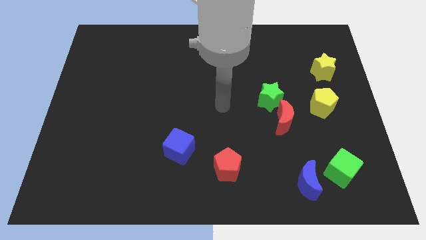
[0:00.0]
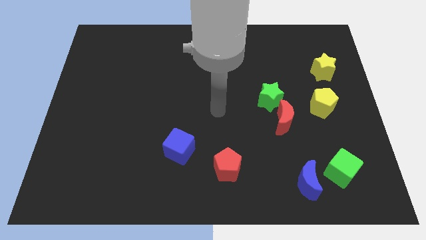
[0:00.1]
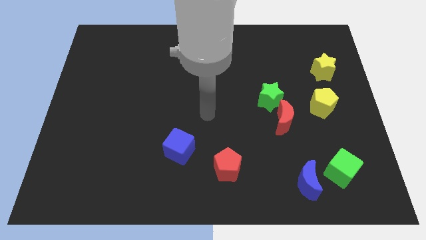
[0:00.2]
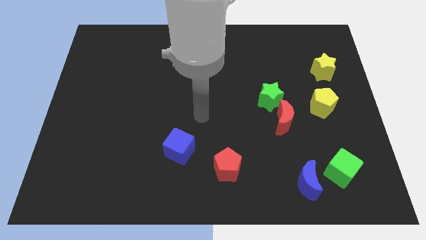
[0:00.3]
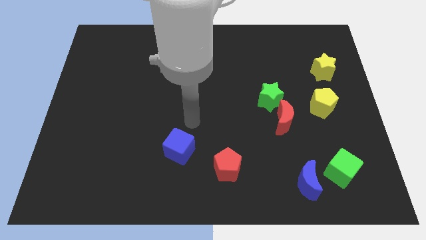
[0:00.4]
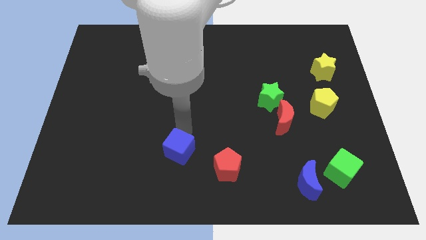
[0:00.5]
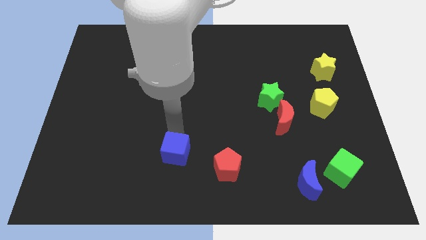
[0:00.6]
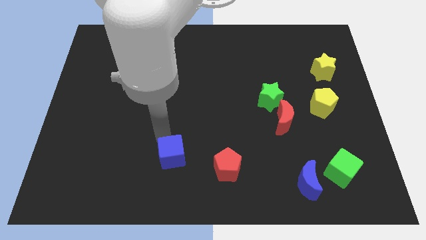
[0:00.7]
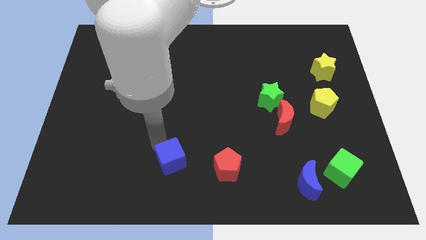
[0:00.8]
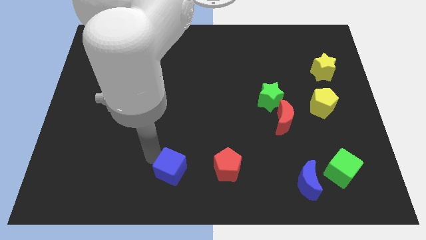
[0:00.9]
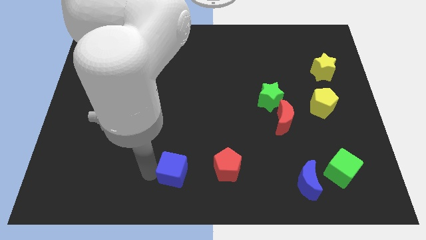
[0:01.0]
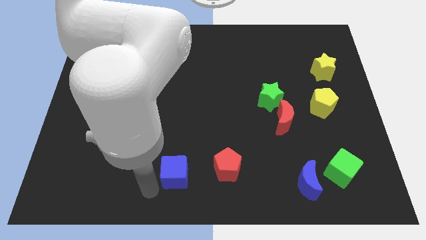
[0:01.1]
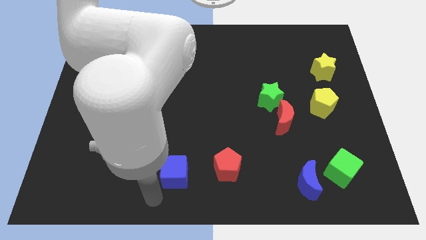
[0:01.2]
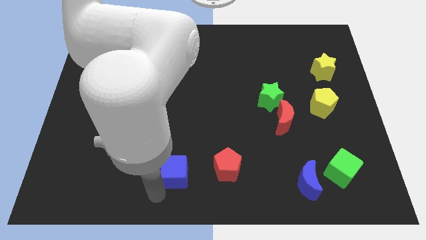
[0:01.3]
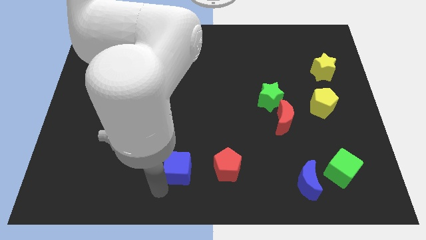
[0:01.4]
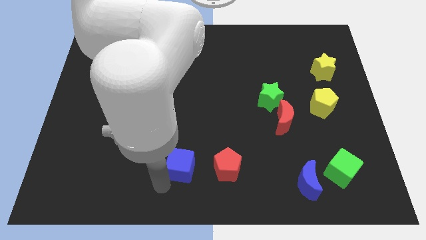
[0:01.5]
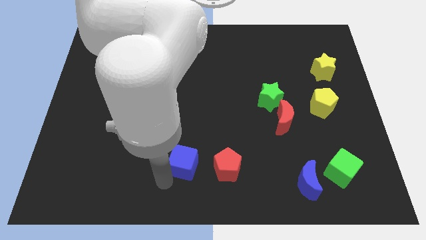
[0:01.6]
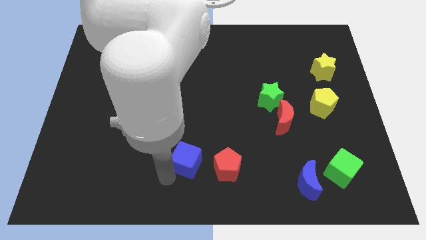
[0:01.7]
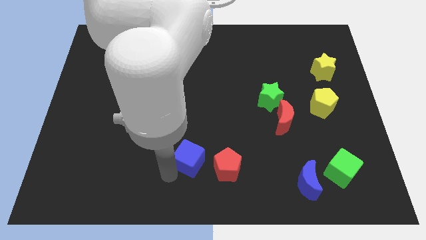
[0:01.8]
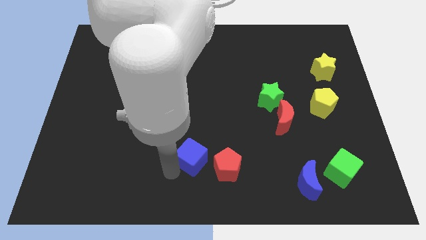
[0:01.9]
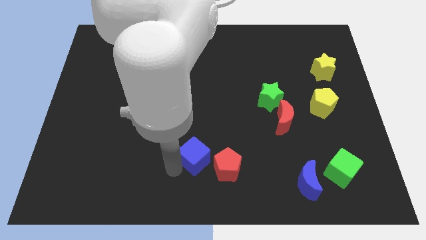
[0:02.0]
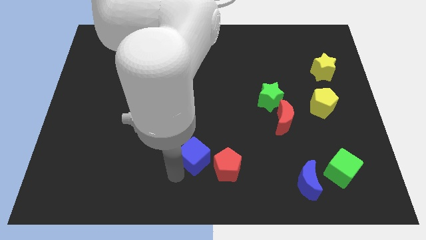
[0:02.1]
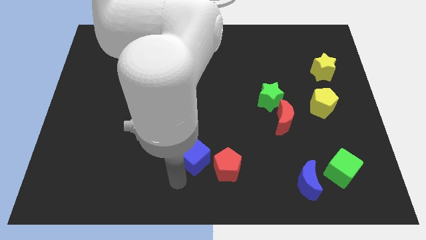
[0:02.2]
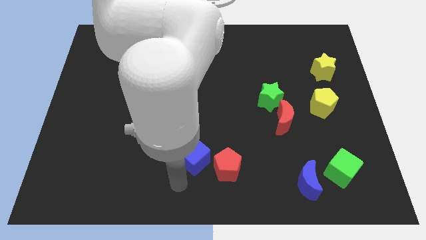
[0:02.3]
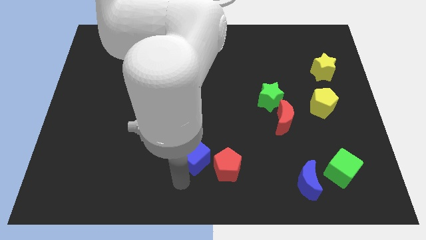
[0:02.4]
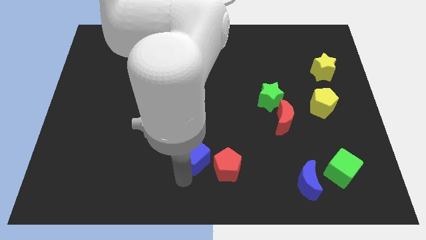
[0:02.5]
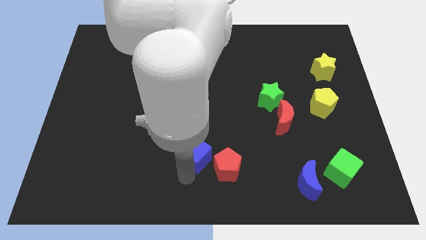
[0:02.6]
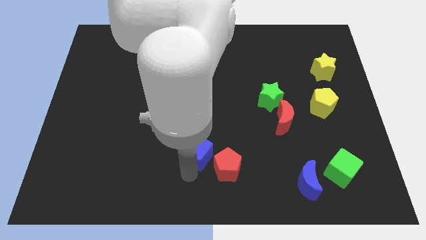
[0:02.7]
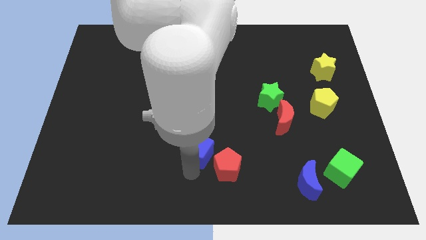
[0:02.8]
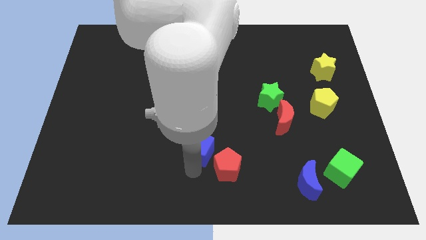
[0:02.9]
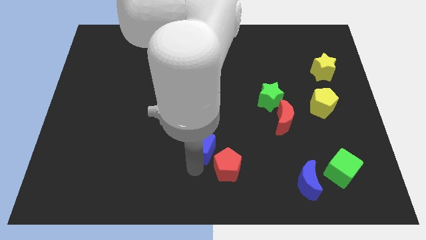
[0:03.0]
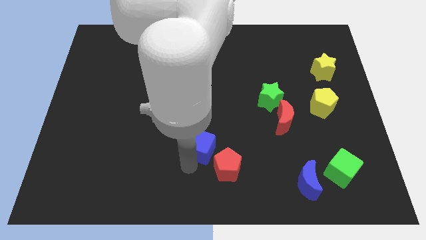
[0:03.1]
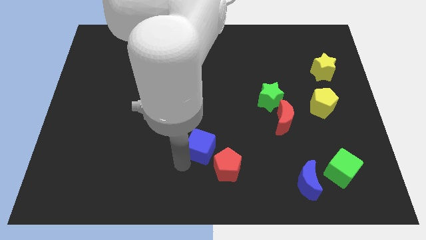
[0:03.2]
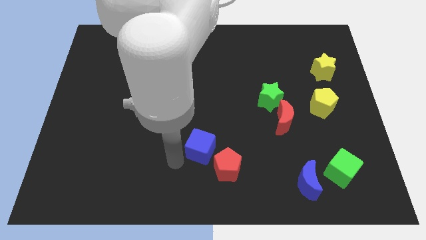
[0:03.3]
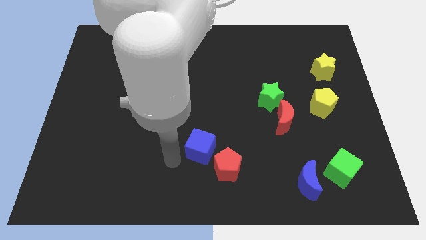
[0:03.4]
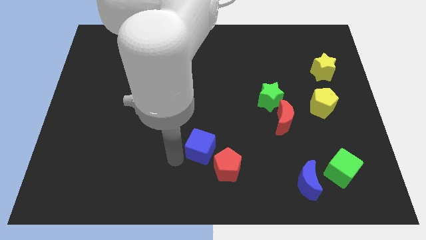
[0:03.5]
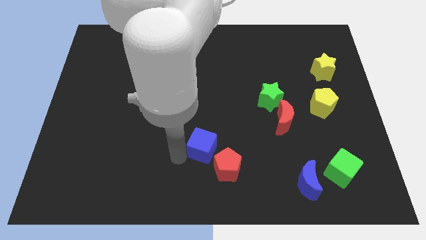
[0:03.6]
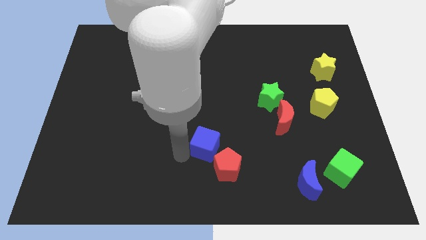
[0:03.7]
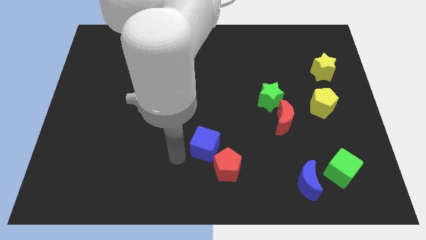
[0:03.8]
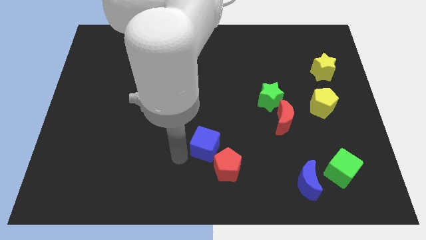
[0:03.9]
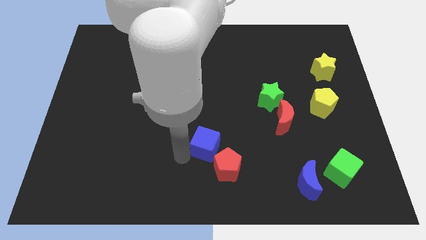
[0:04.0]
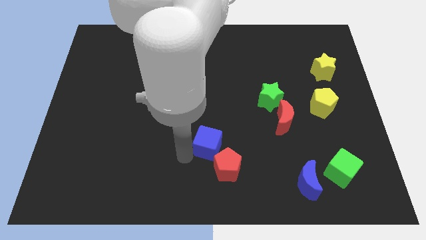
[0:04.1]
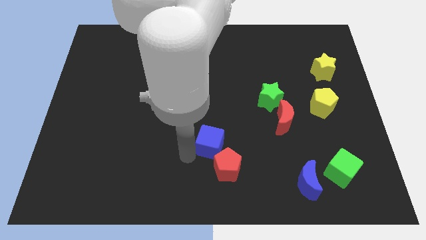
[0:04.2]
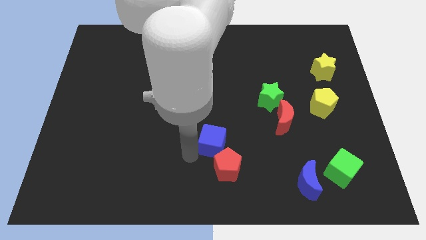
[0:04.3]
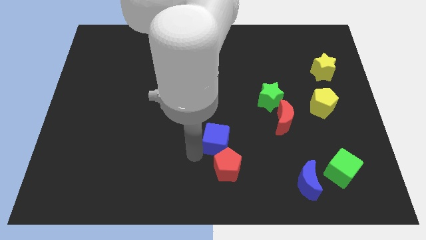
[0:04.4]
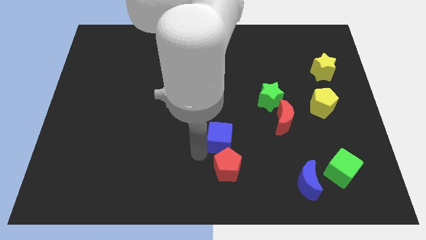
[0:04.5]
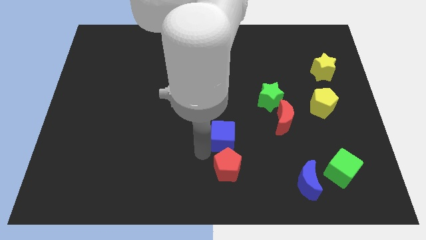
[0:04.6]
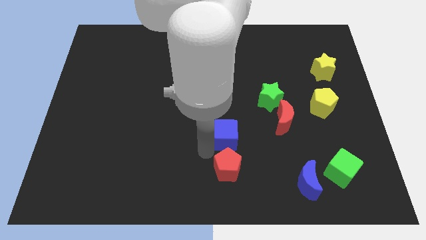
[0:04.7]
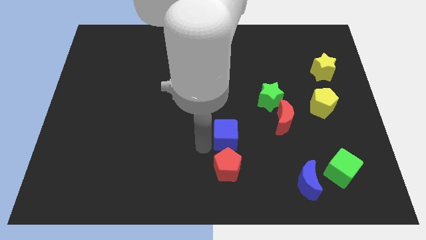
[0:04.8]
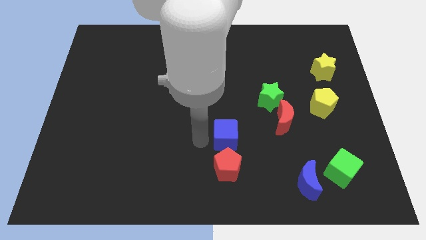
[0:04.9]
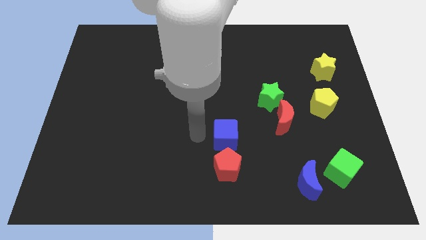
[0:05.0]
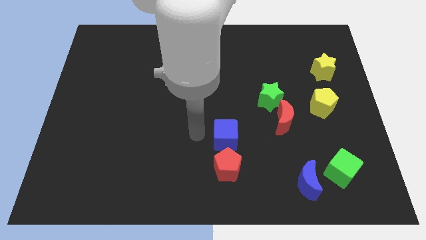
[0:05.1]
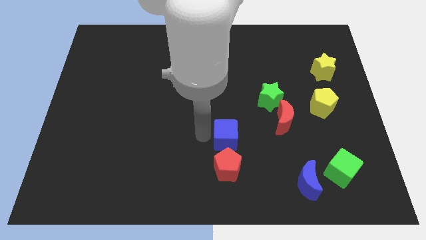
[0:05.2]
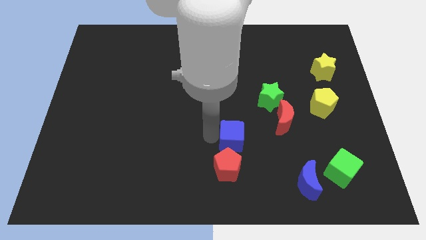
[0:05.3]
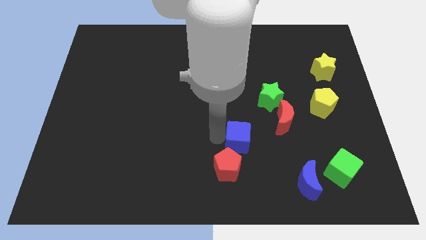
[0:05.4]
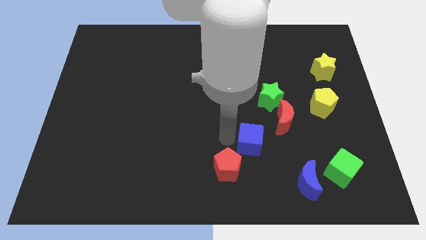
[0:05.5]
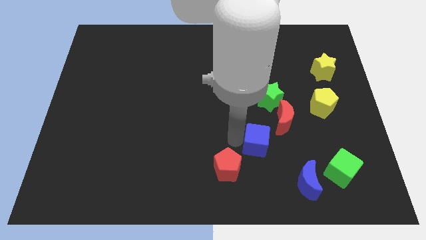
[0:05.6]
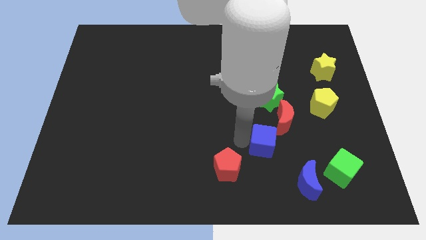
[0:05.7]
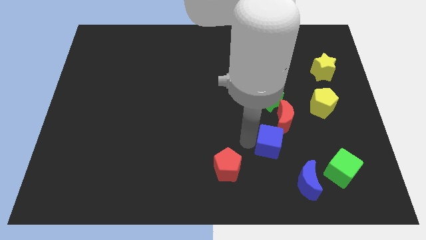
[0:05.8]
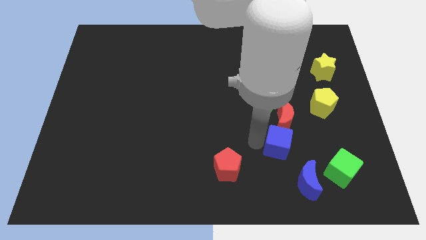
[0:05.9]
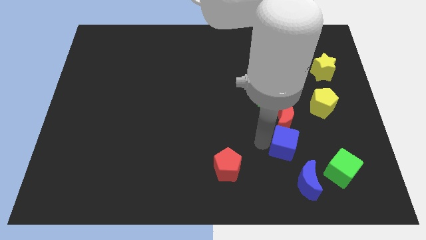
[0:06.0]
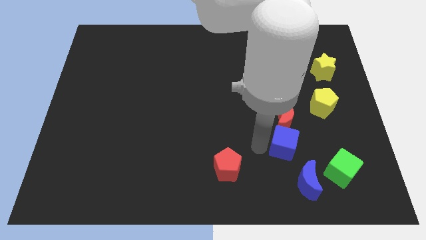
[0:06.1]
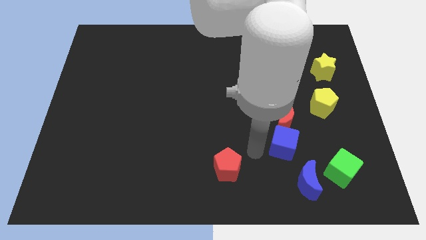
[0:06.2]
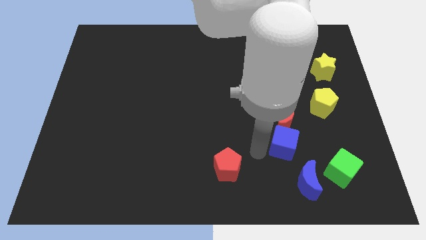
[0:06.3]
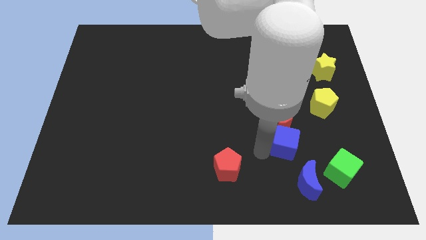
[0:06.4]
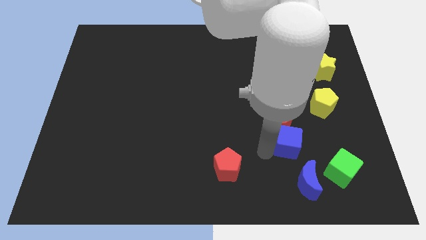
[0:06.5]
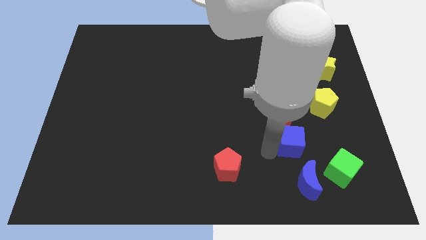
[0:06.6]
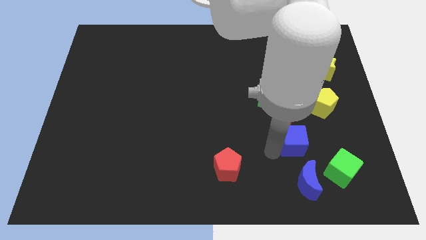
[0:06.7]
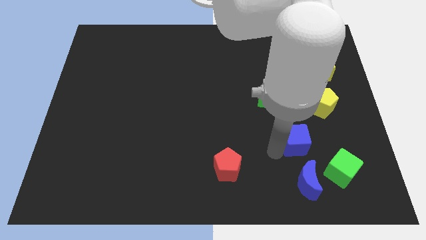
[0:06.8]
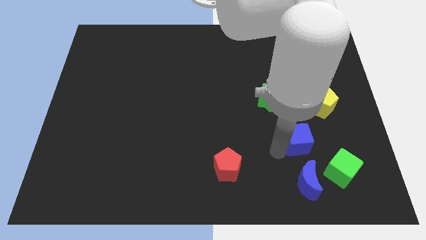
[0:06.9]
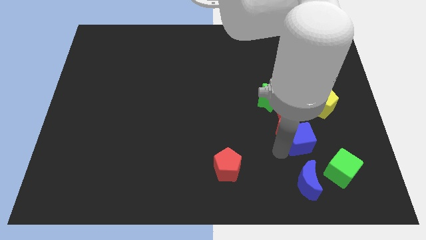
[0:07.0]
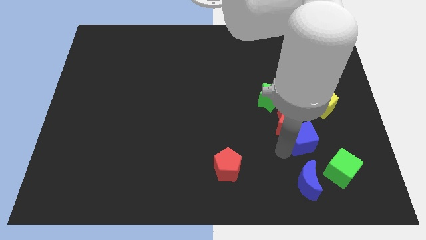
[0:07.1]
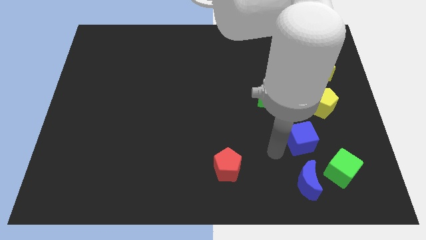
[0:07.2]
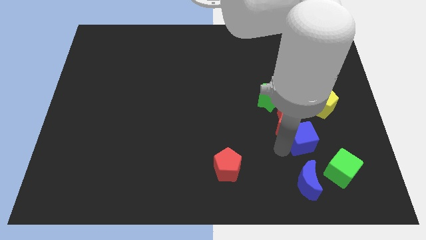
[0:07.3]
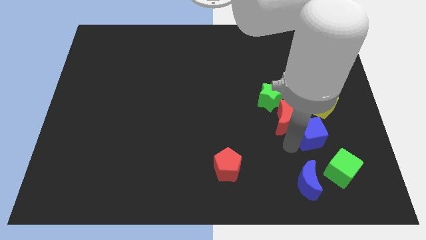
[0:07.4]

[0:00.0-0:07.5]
move the blue cube to the top side of the green cube

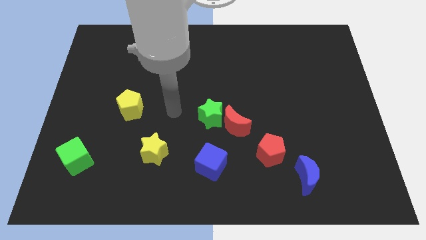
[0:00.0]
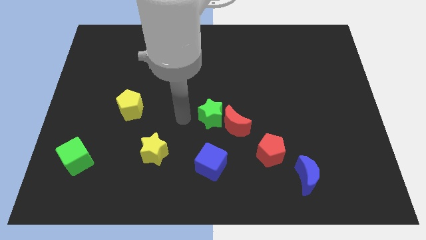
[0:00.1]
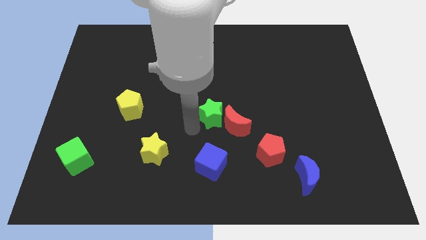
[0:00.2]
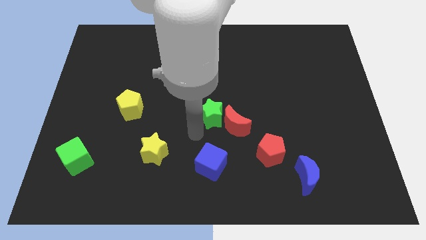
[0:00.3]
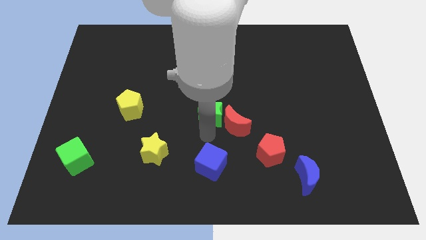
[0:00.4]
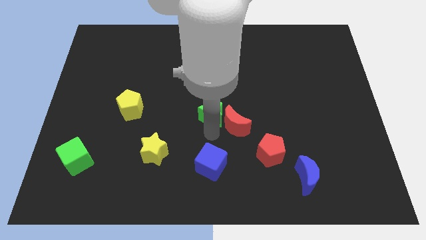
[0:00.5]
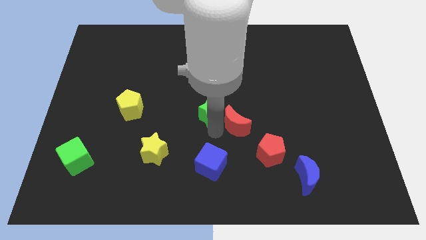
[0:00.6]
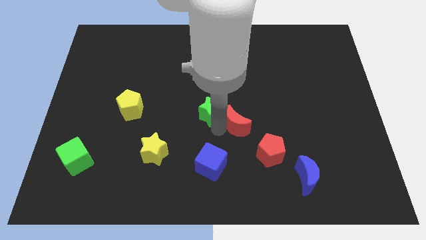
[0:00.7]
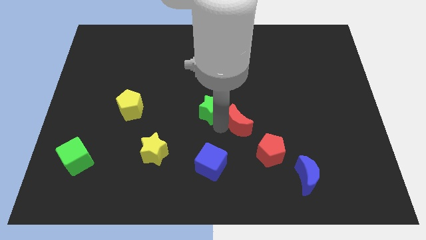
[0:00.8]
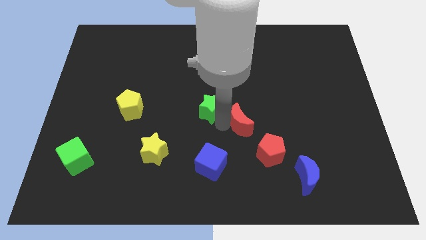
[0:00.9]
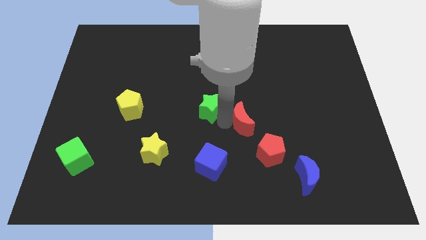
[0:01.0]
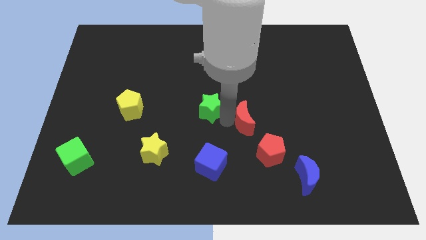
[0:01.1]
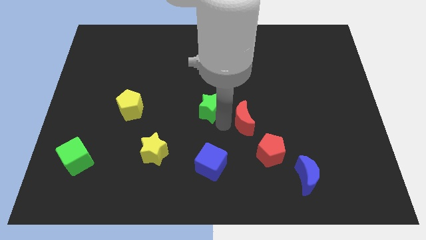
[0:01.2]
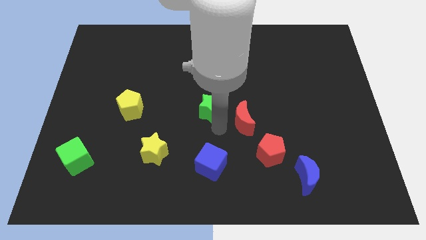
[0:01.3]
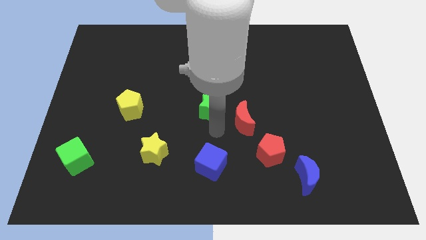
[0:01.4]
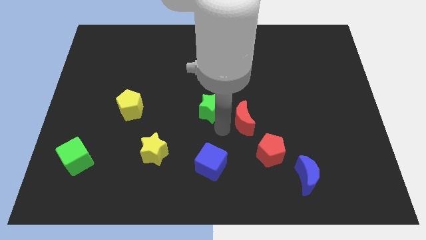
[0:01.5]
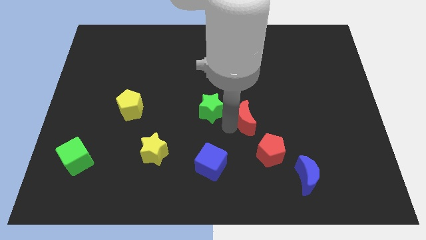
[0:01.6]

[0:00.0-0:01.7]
push the red moon above the red pentagon
